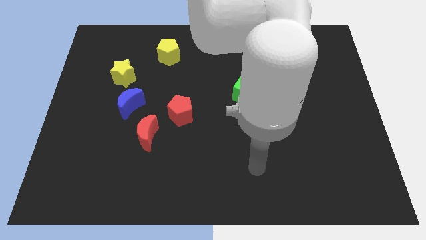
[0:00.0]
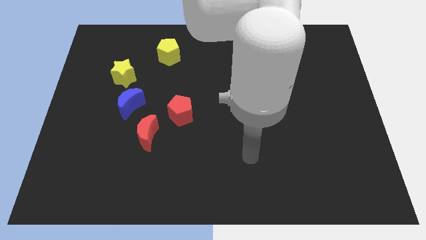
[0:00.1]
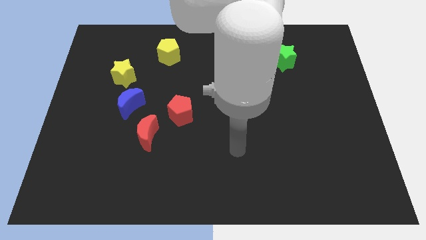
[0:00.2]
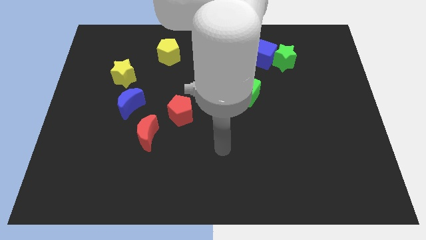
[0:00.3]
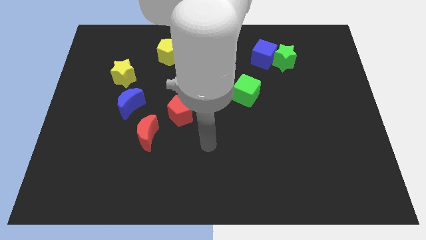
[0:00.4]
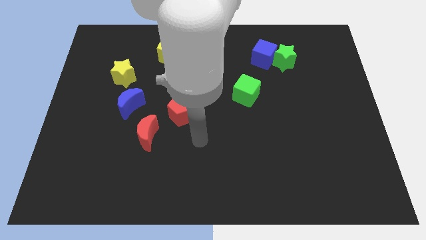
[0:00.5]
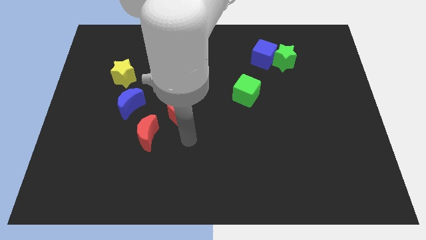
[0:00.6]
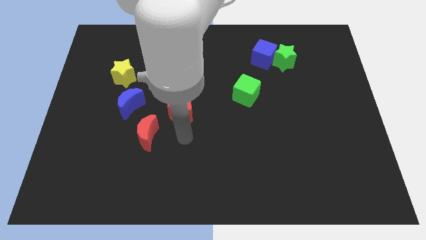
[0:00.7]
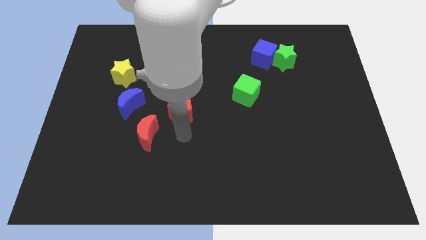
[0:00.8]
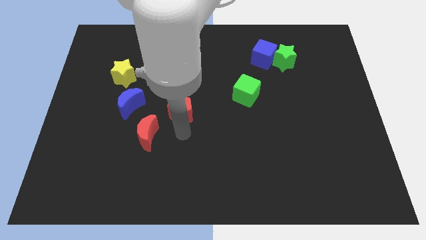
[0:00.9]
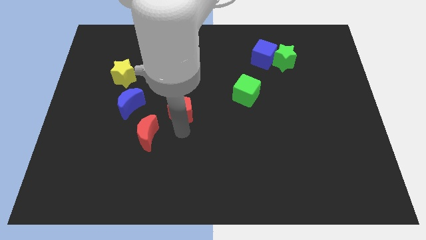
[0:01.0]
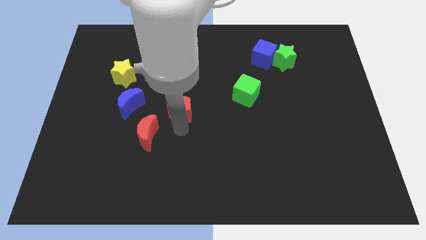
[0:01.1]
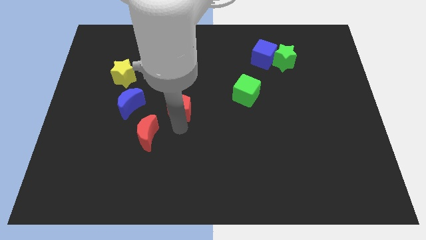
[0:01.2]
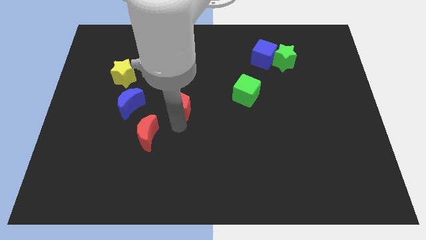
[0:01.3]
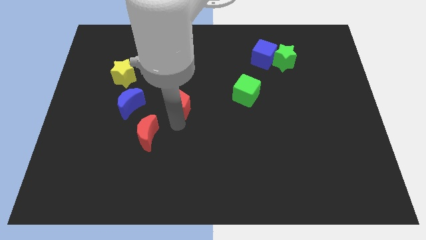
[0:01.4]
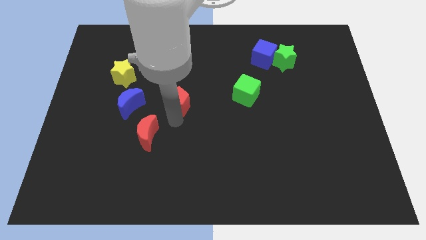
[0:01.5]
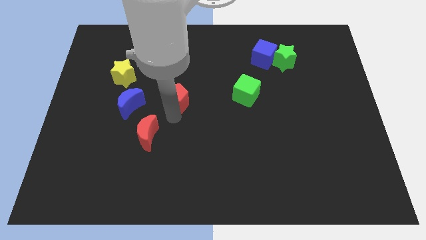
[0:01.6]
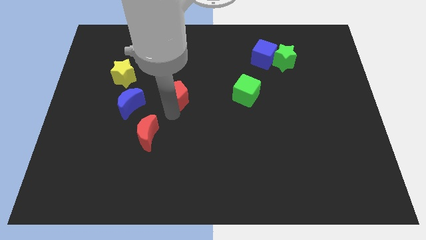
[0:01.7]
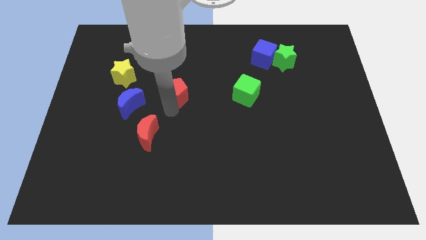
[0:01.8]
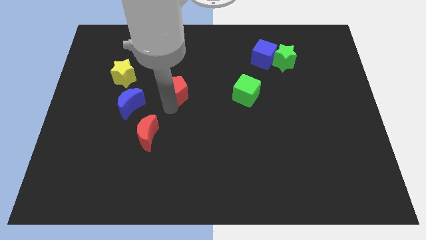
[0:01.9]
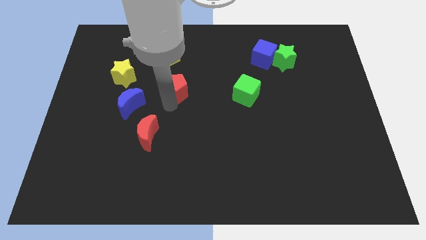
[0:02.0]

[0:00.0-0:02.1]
slightly slide the red pentagon upwards

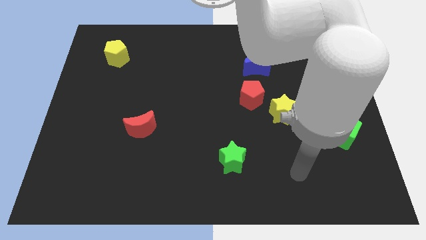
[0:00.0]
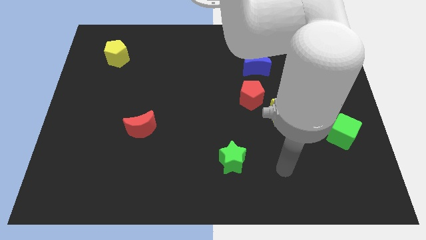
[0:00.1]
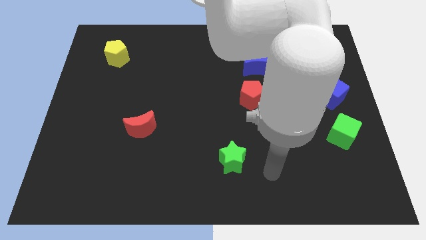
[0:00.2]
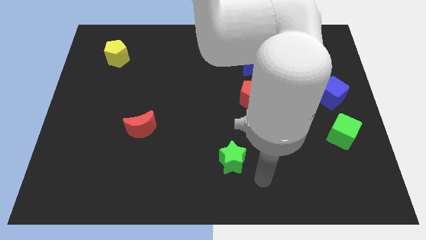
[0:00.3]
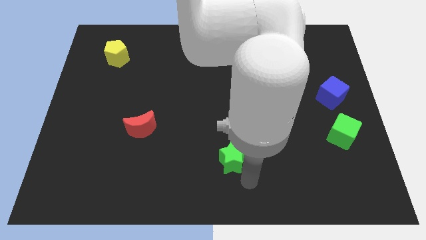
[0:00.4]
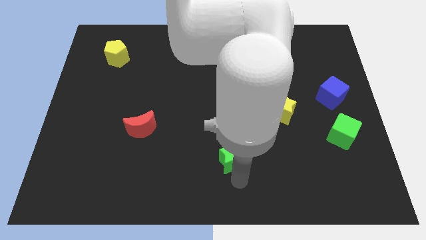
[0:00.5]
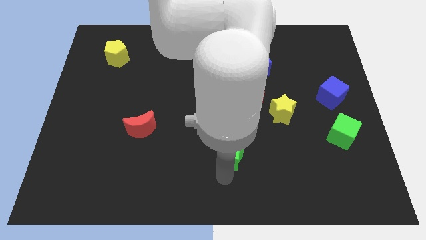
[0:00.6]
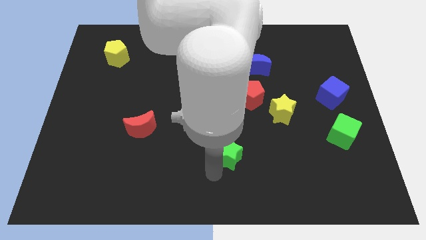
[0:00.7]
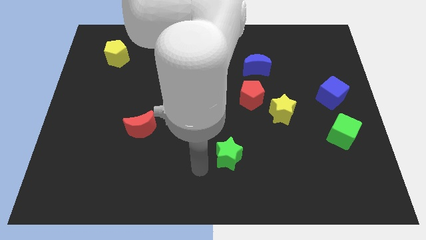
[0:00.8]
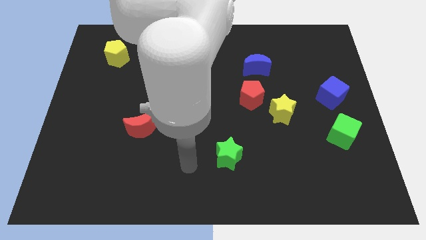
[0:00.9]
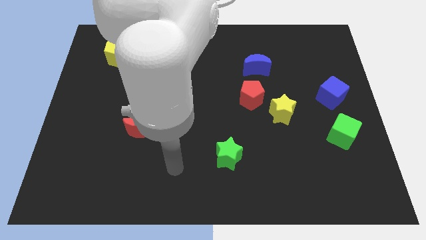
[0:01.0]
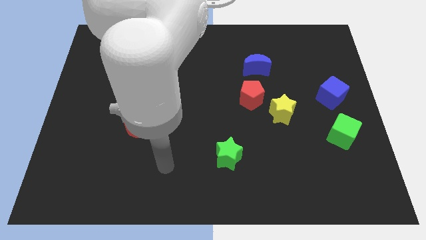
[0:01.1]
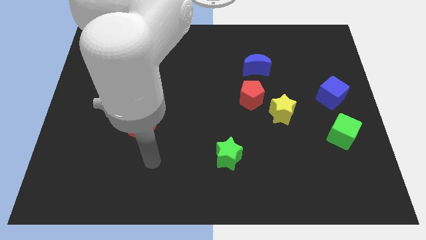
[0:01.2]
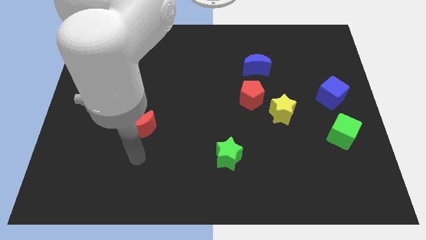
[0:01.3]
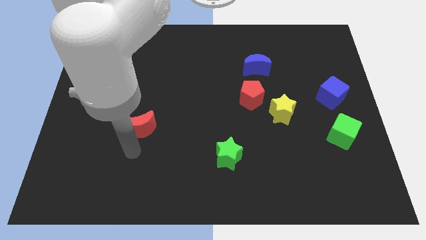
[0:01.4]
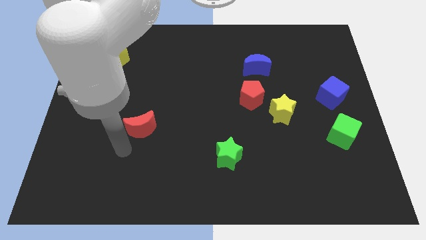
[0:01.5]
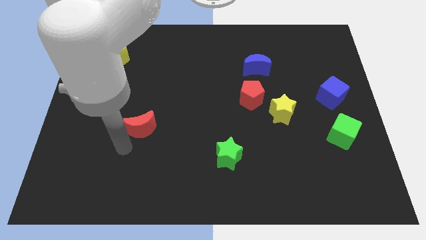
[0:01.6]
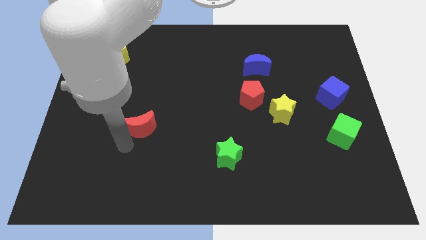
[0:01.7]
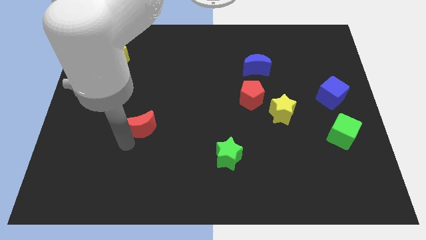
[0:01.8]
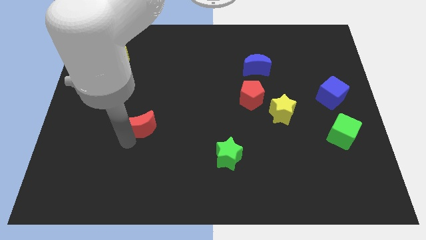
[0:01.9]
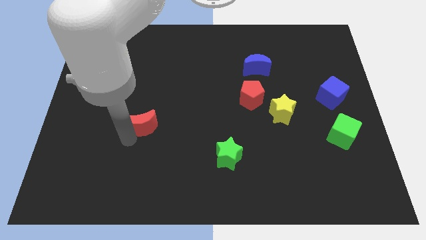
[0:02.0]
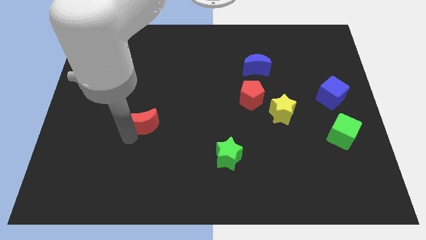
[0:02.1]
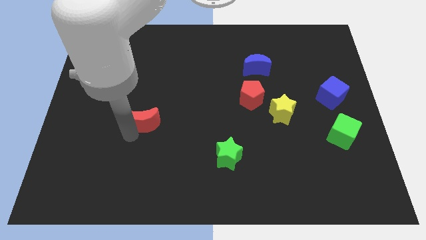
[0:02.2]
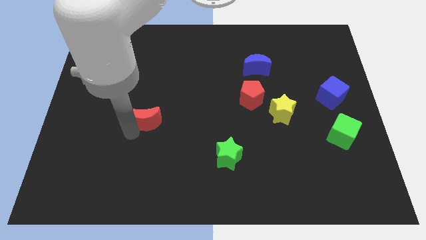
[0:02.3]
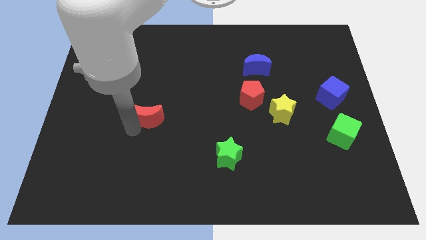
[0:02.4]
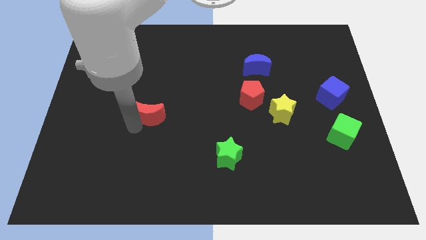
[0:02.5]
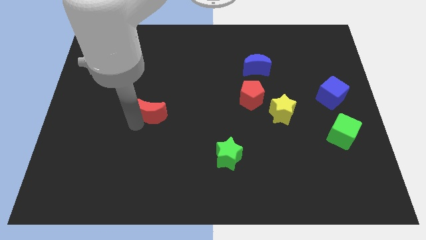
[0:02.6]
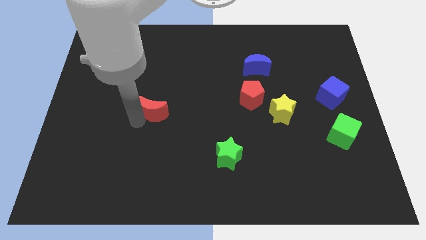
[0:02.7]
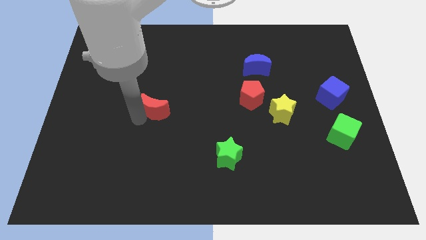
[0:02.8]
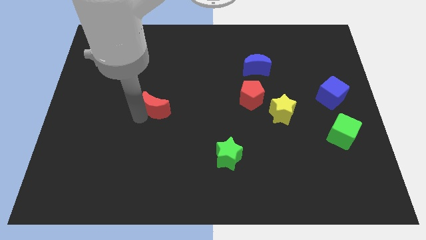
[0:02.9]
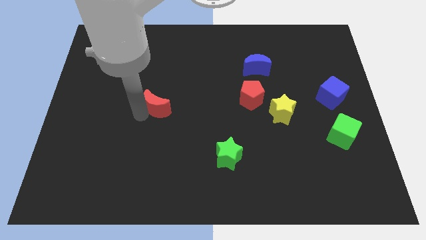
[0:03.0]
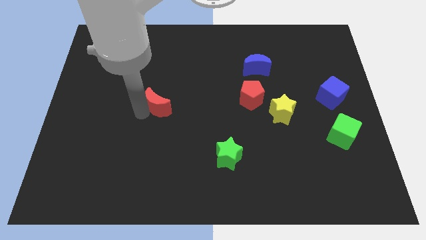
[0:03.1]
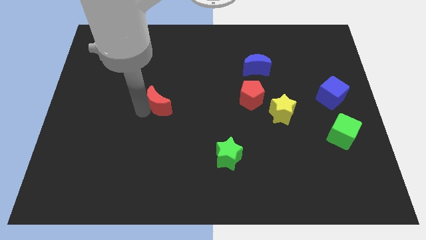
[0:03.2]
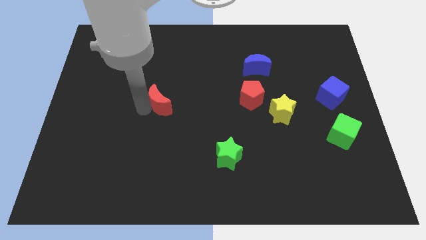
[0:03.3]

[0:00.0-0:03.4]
slightly move the red moon upwards and then right

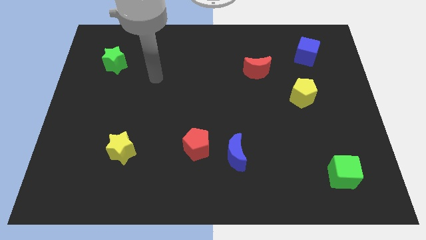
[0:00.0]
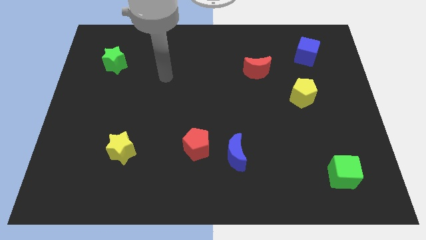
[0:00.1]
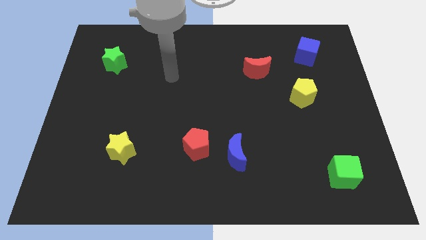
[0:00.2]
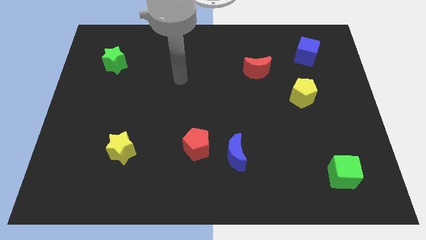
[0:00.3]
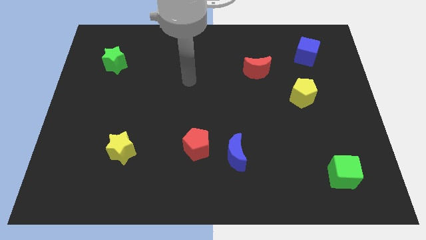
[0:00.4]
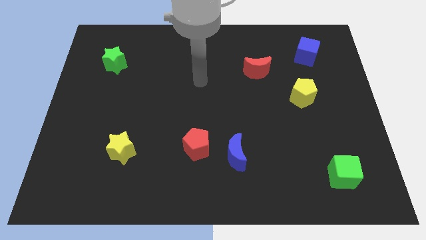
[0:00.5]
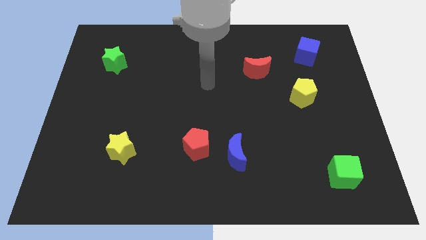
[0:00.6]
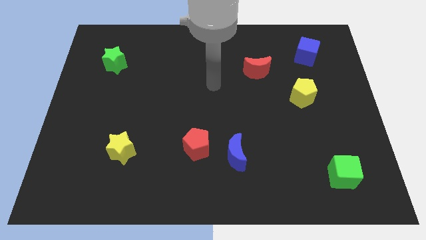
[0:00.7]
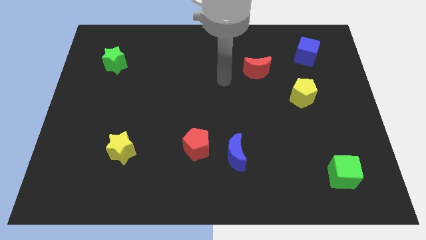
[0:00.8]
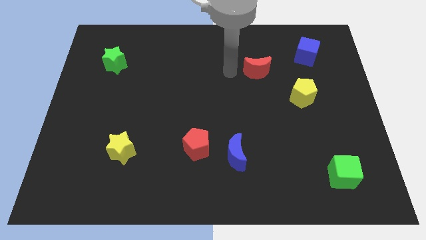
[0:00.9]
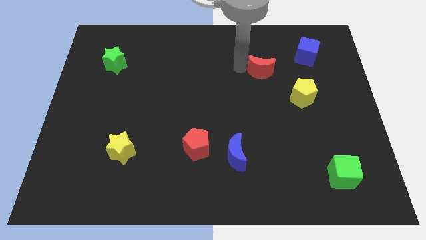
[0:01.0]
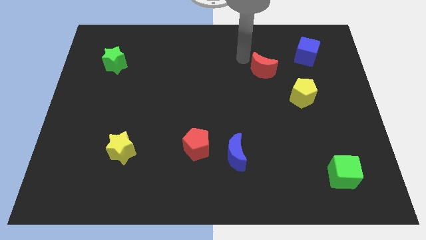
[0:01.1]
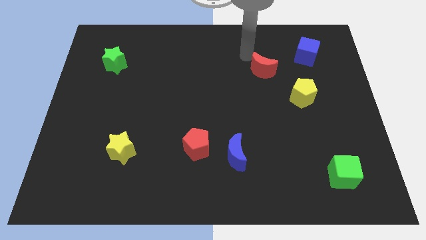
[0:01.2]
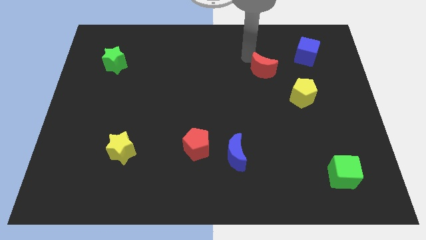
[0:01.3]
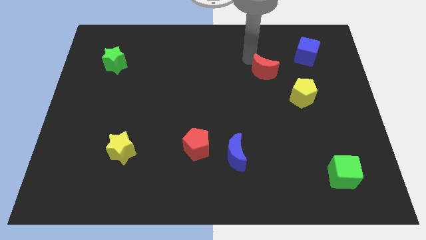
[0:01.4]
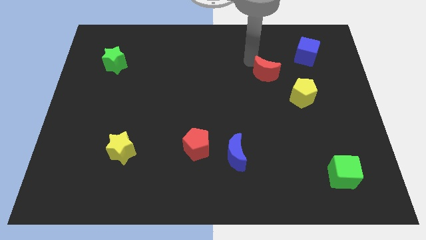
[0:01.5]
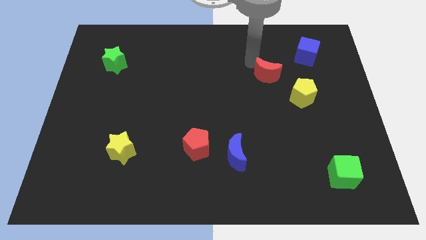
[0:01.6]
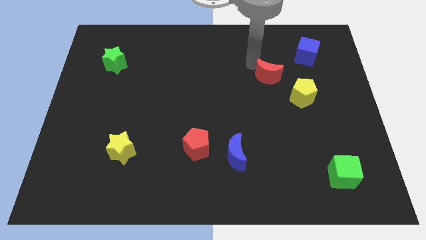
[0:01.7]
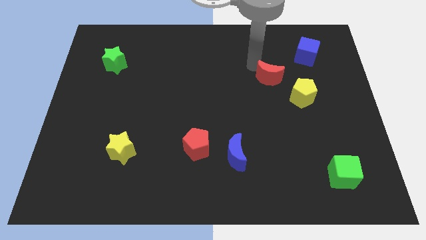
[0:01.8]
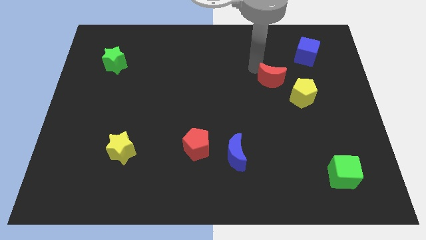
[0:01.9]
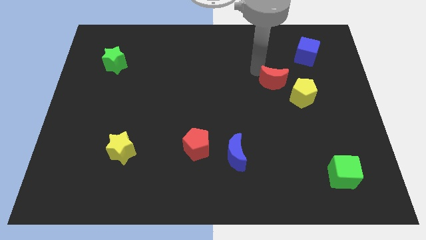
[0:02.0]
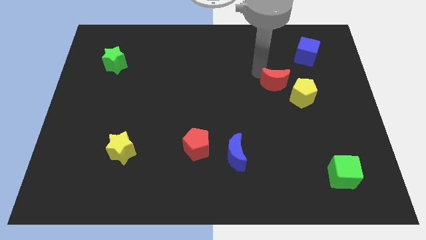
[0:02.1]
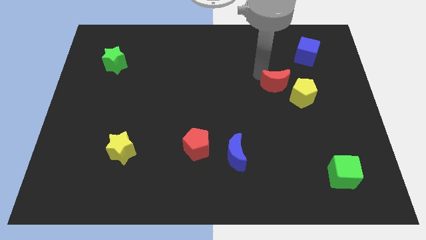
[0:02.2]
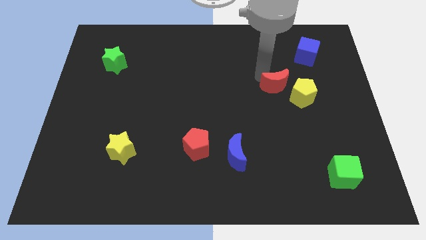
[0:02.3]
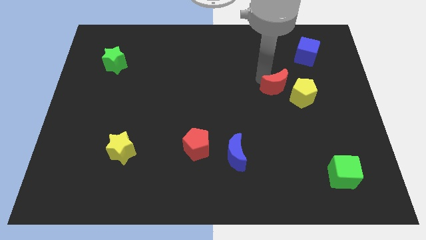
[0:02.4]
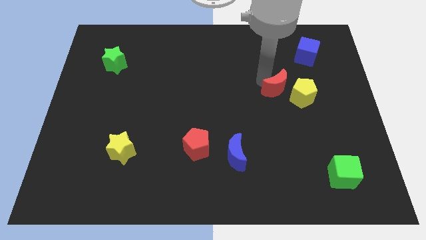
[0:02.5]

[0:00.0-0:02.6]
move the red moon a bit downwards and to the right diagonally
